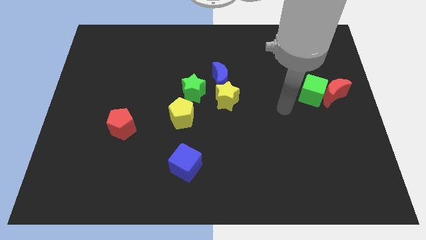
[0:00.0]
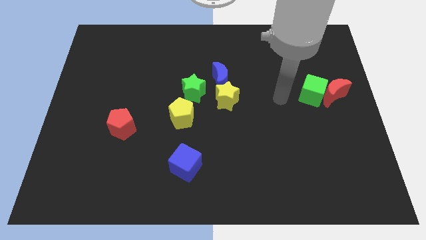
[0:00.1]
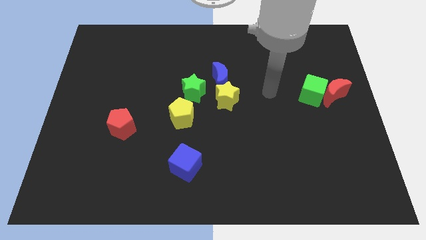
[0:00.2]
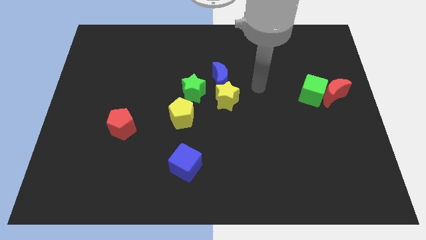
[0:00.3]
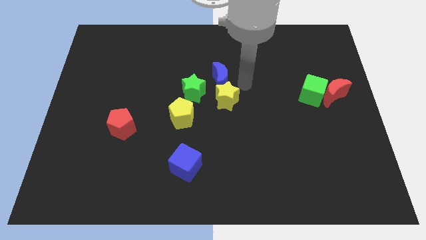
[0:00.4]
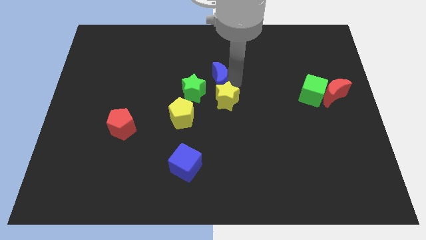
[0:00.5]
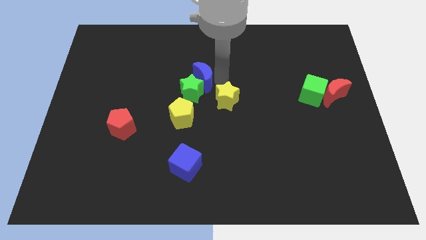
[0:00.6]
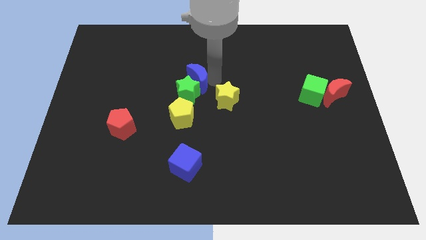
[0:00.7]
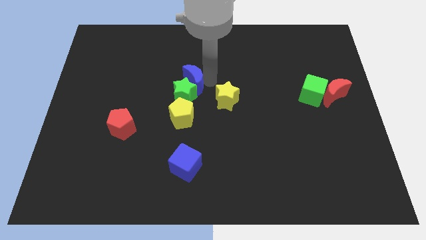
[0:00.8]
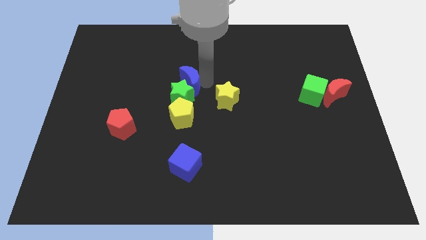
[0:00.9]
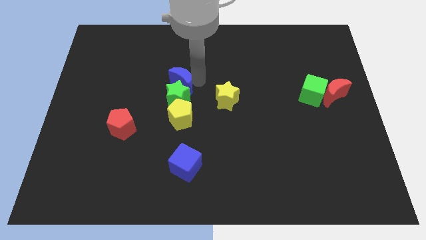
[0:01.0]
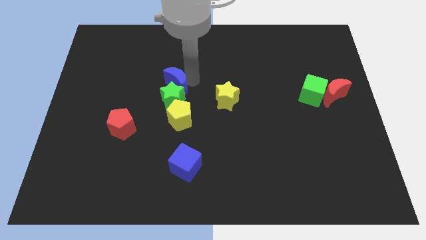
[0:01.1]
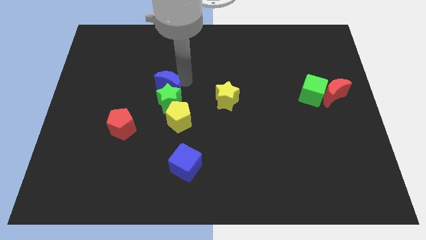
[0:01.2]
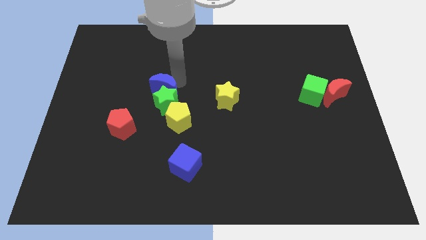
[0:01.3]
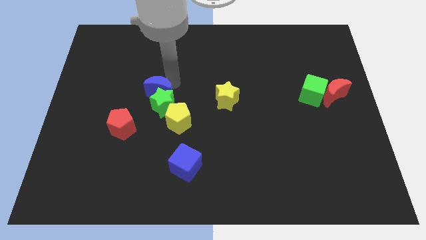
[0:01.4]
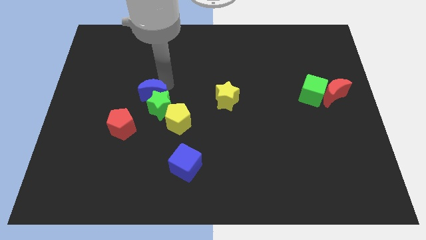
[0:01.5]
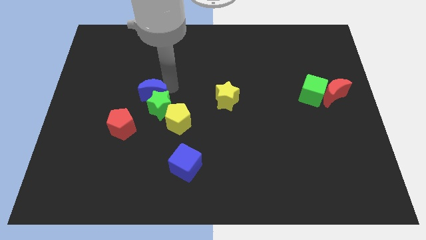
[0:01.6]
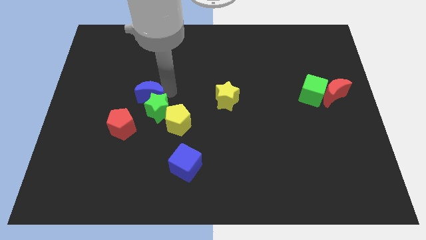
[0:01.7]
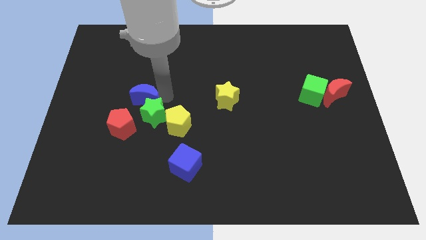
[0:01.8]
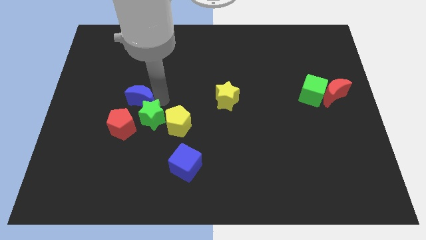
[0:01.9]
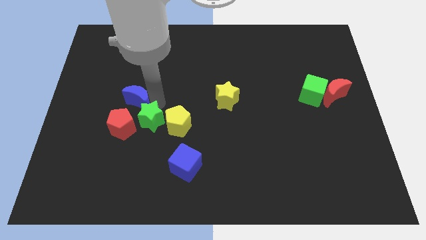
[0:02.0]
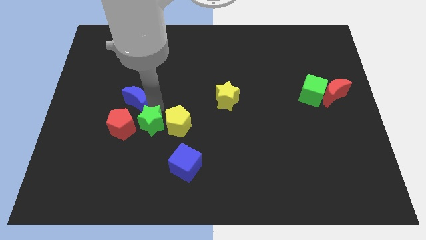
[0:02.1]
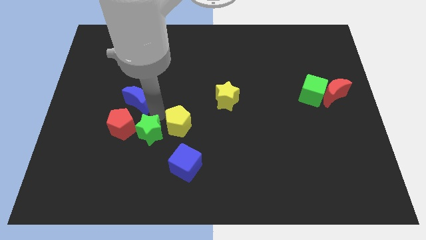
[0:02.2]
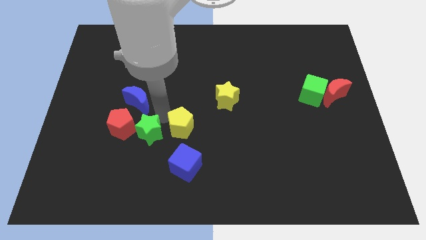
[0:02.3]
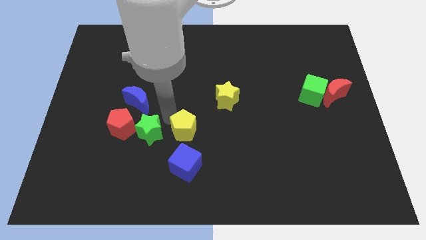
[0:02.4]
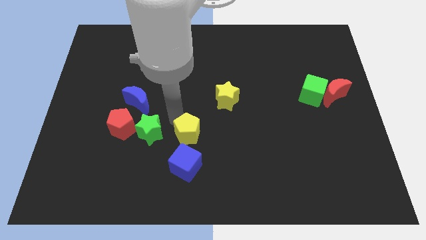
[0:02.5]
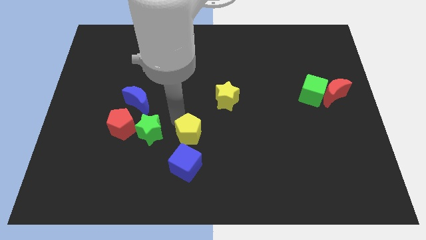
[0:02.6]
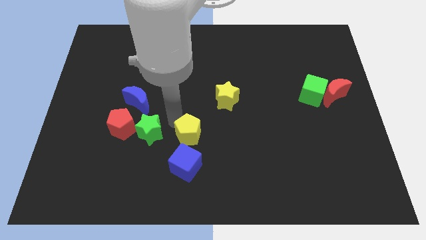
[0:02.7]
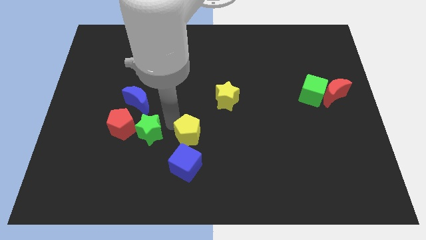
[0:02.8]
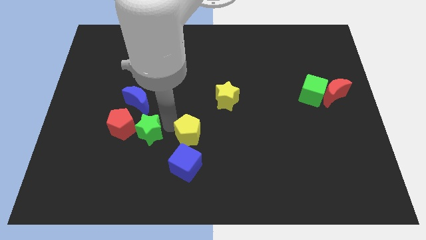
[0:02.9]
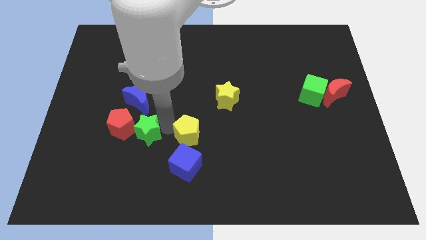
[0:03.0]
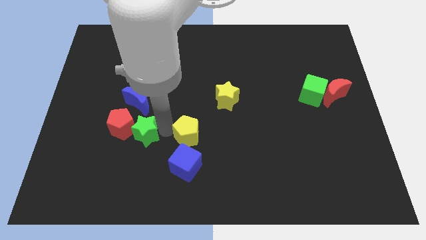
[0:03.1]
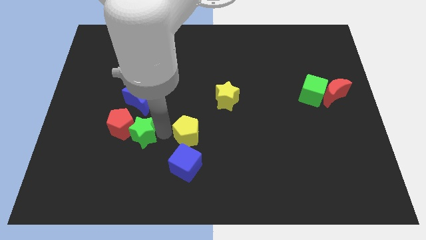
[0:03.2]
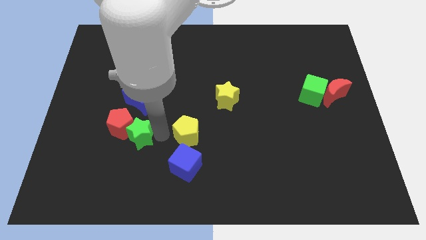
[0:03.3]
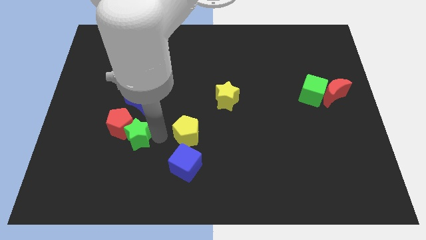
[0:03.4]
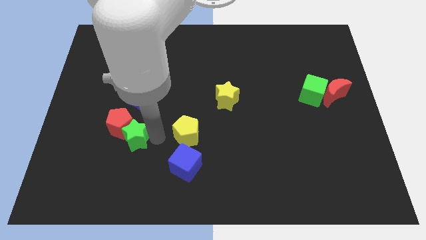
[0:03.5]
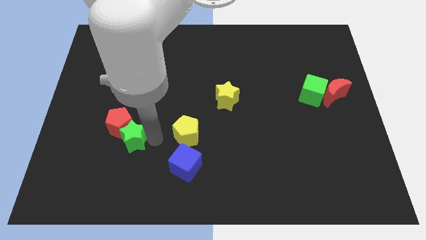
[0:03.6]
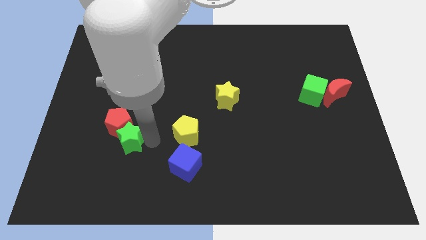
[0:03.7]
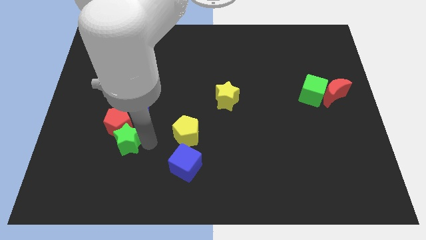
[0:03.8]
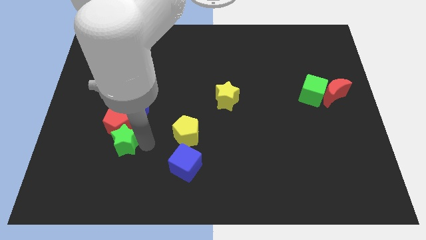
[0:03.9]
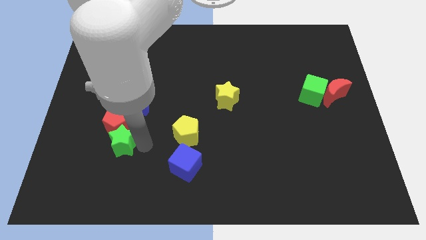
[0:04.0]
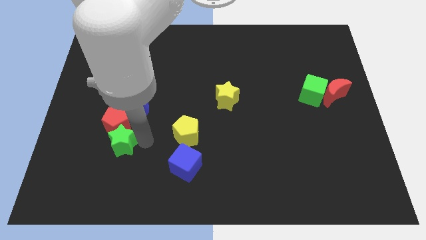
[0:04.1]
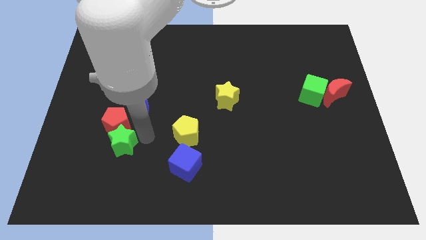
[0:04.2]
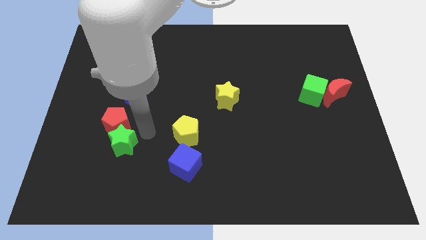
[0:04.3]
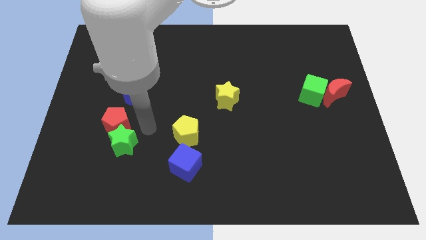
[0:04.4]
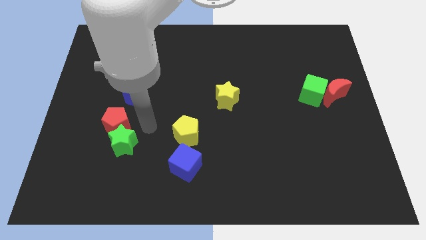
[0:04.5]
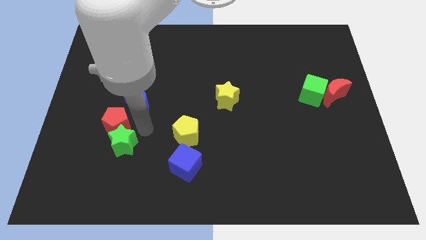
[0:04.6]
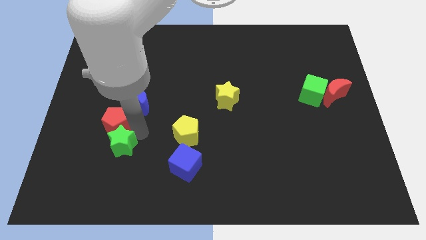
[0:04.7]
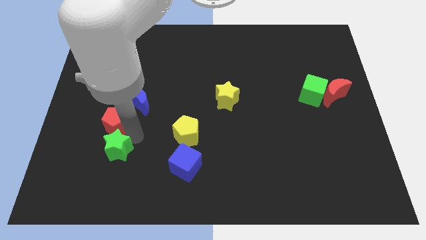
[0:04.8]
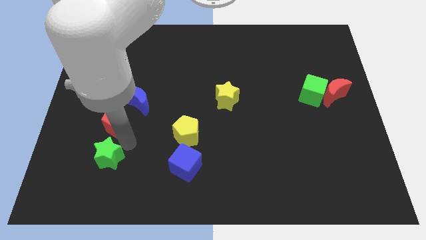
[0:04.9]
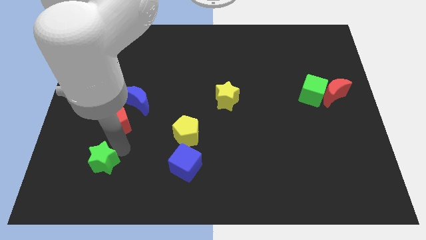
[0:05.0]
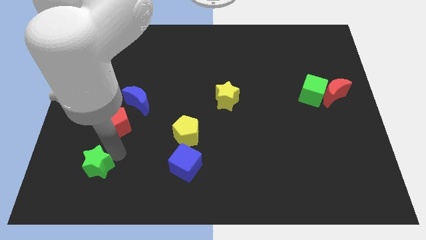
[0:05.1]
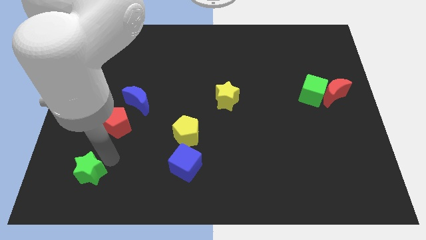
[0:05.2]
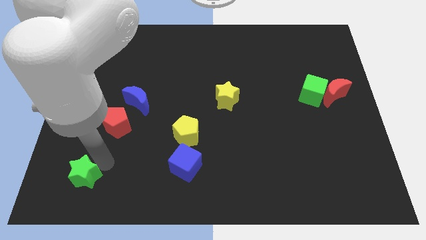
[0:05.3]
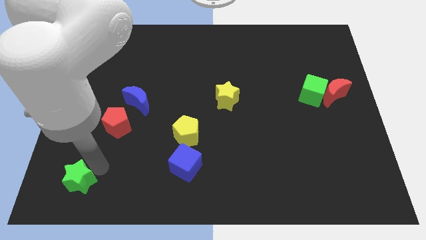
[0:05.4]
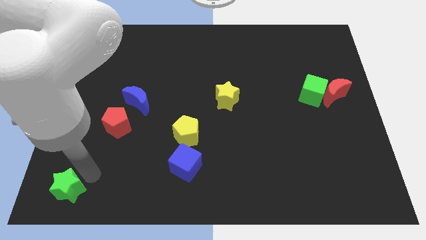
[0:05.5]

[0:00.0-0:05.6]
put the green star to the bottom left of the board

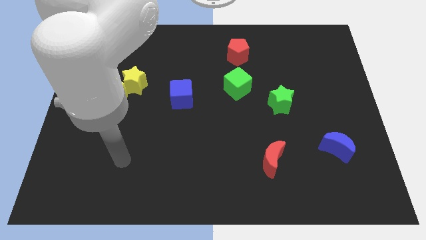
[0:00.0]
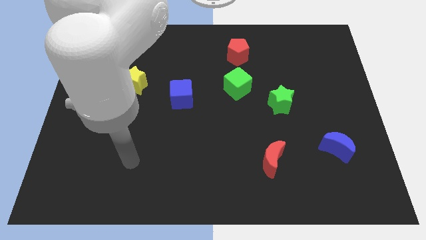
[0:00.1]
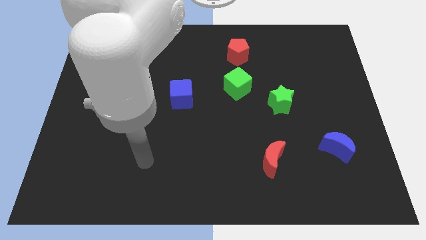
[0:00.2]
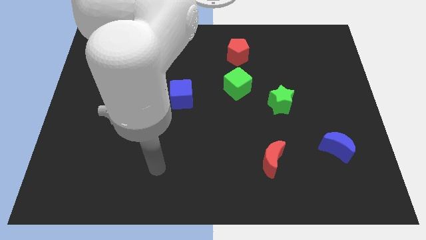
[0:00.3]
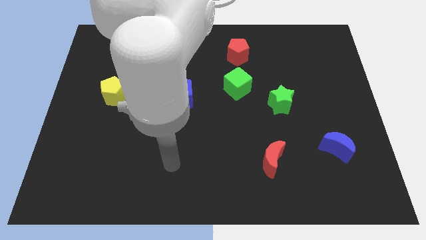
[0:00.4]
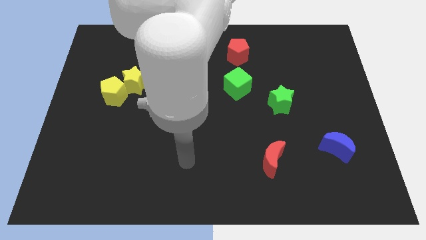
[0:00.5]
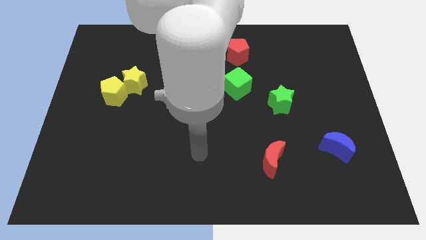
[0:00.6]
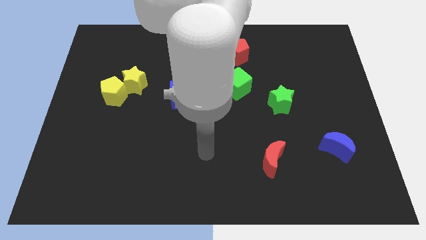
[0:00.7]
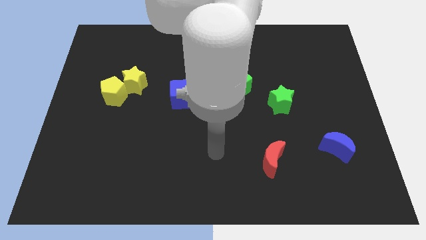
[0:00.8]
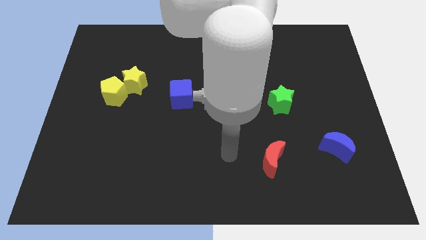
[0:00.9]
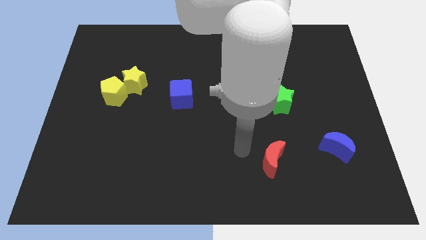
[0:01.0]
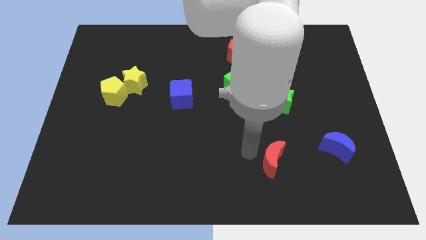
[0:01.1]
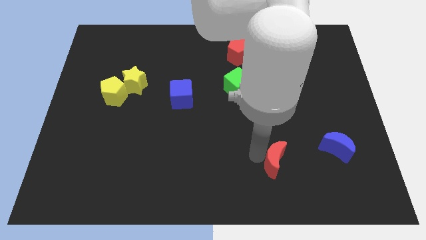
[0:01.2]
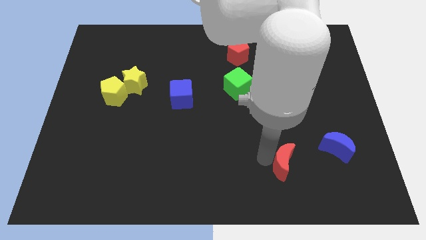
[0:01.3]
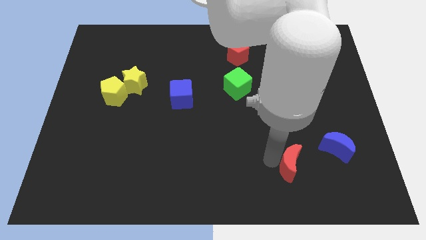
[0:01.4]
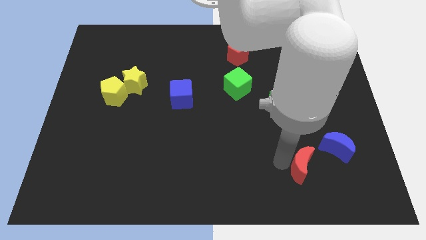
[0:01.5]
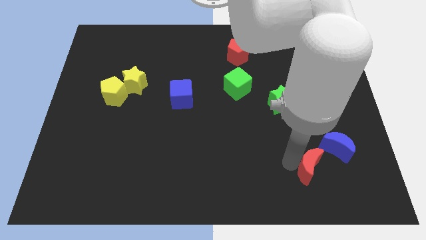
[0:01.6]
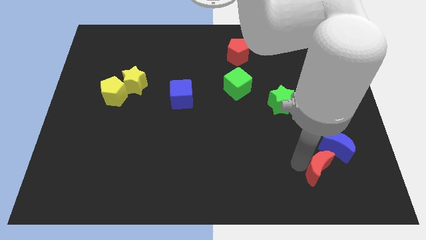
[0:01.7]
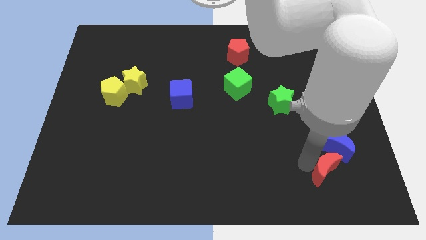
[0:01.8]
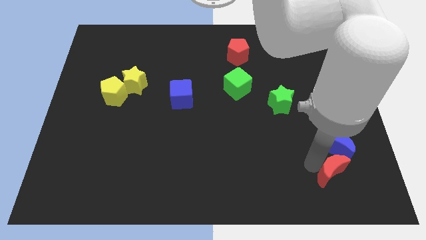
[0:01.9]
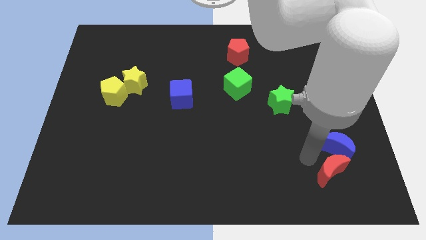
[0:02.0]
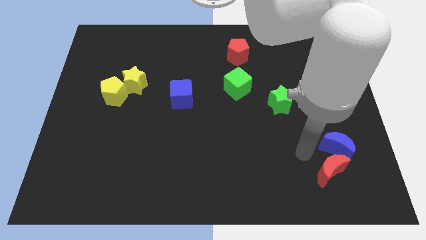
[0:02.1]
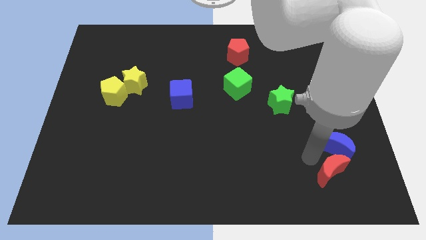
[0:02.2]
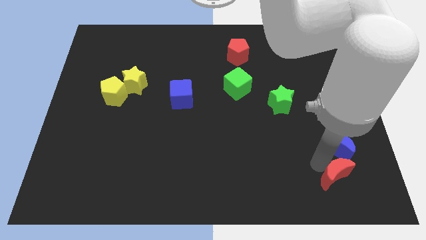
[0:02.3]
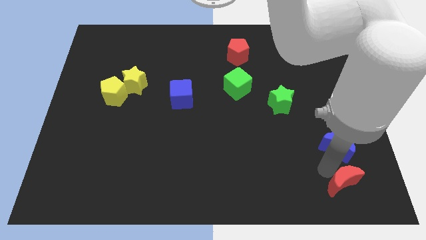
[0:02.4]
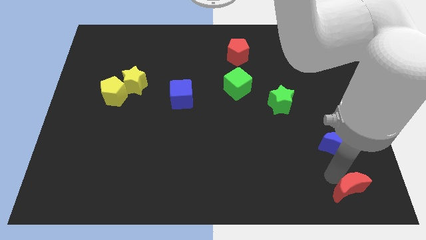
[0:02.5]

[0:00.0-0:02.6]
slide the red moon to the bottom right
